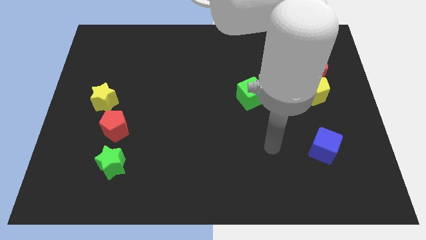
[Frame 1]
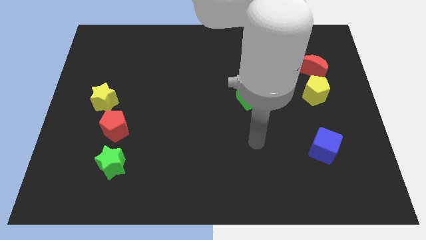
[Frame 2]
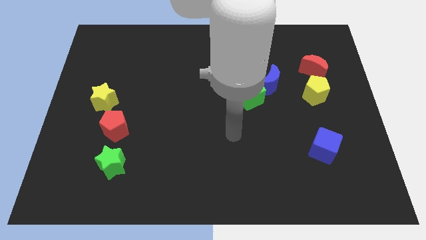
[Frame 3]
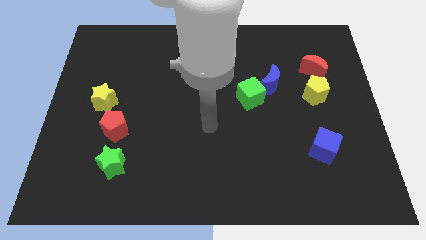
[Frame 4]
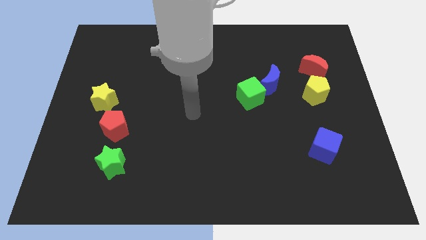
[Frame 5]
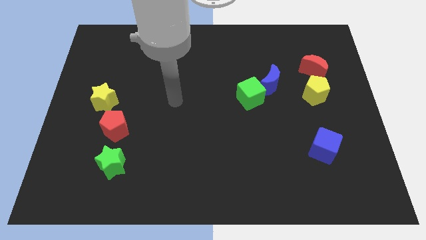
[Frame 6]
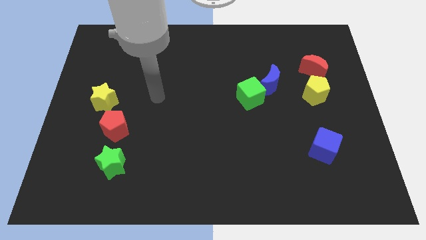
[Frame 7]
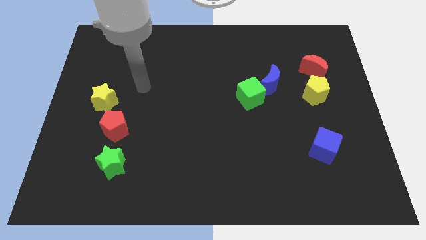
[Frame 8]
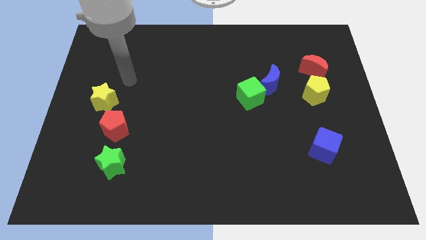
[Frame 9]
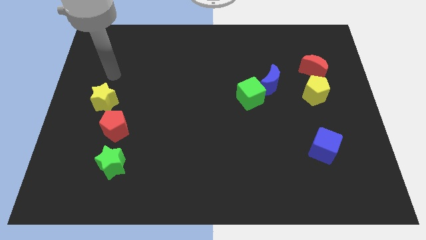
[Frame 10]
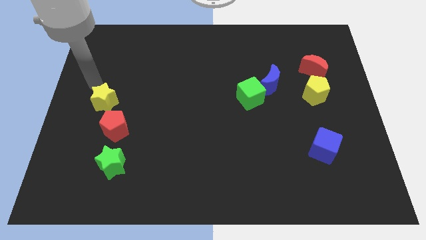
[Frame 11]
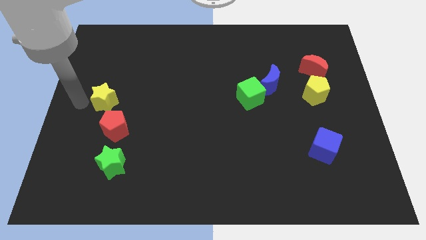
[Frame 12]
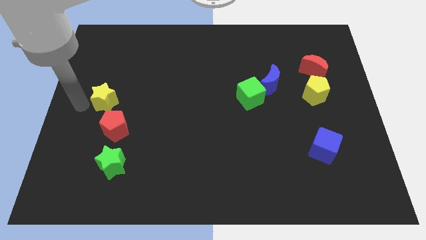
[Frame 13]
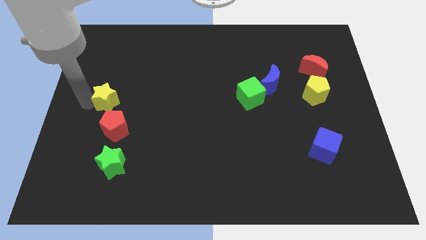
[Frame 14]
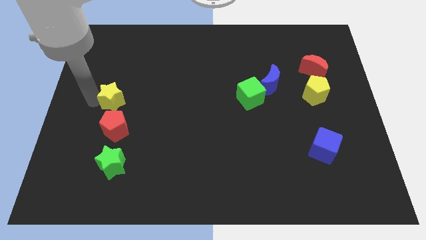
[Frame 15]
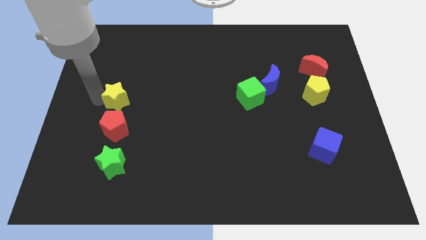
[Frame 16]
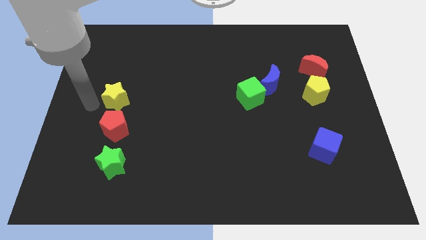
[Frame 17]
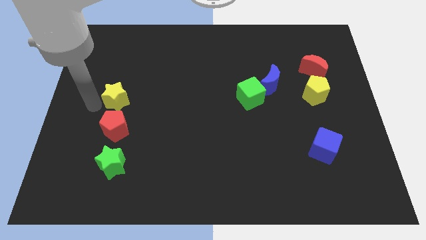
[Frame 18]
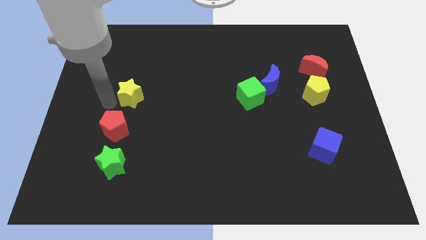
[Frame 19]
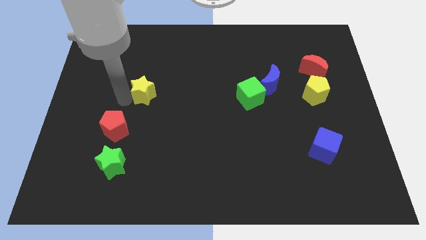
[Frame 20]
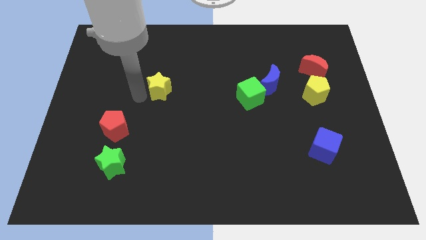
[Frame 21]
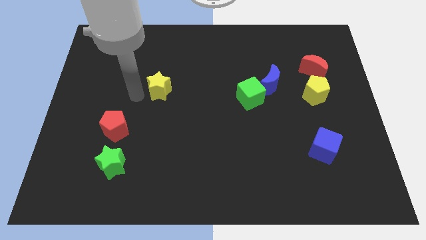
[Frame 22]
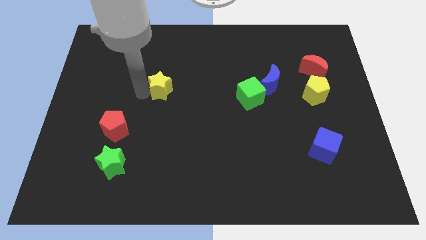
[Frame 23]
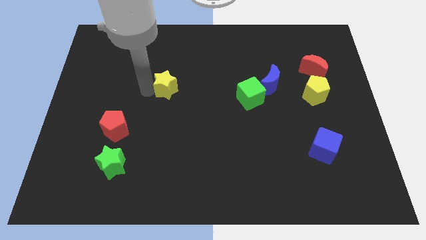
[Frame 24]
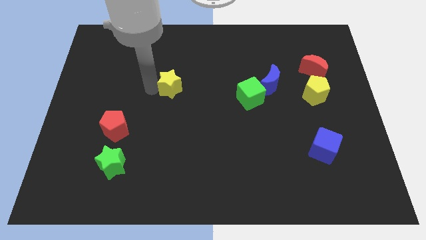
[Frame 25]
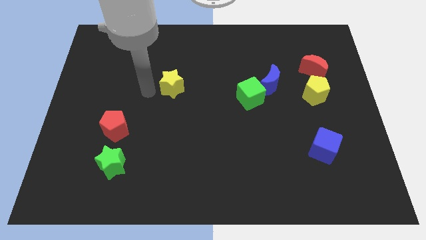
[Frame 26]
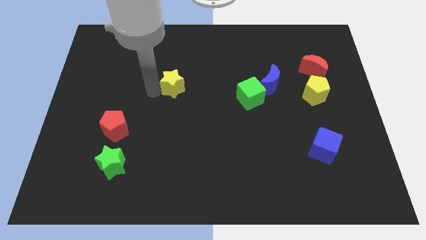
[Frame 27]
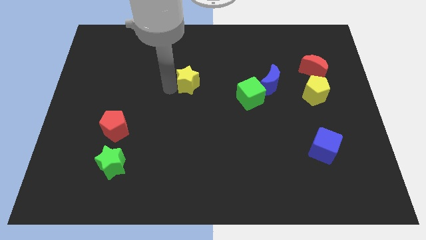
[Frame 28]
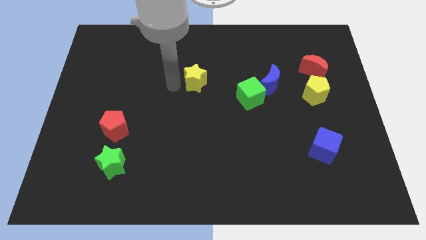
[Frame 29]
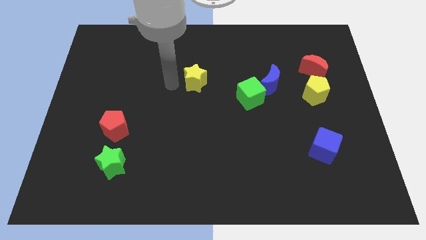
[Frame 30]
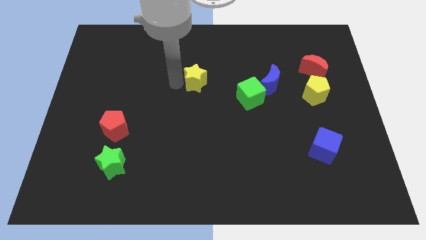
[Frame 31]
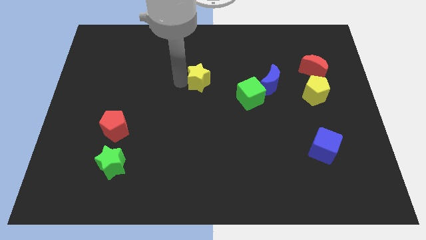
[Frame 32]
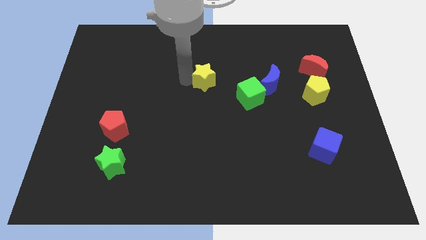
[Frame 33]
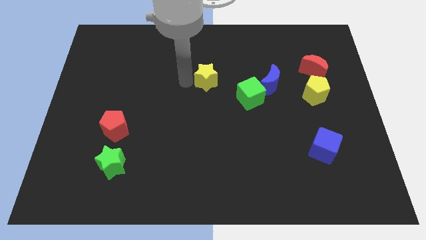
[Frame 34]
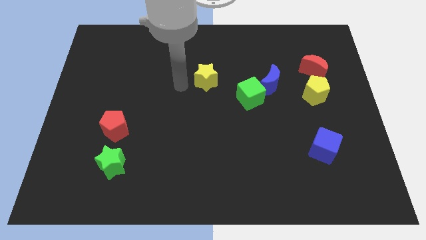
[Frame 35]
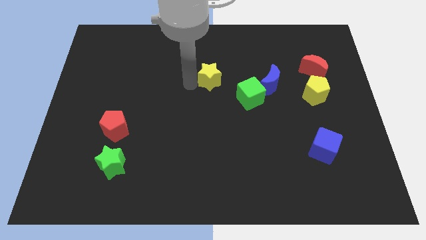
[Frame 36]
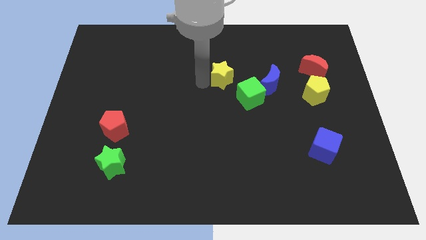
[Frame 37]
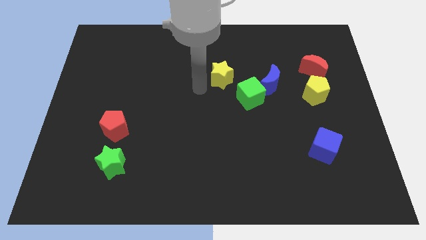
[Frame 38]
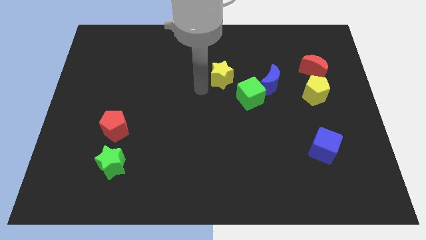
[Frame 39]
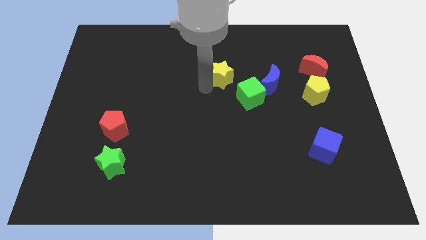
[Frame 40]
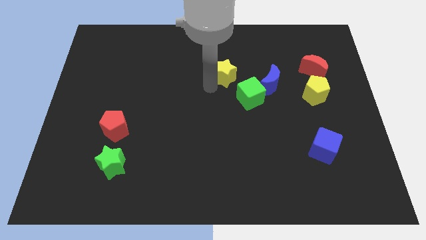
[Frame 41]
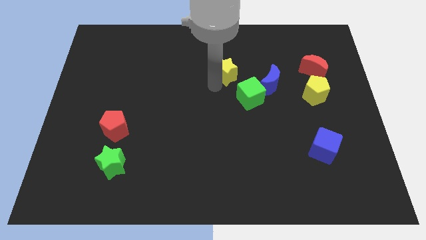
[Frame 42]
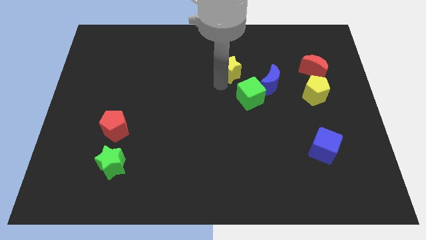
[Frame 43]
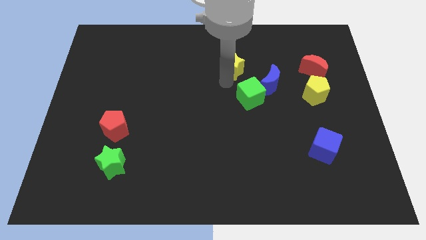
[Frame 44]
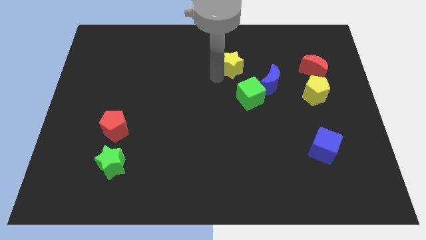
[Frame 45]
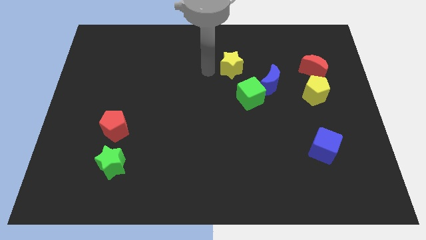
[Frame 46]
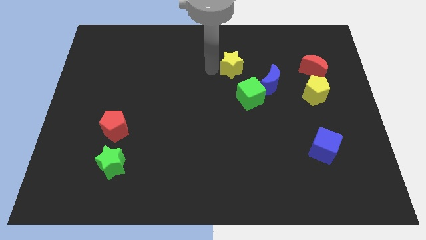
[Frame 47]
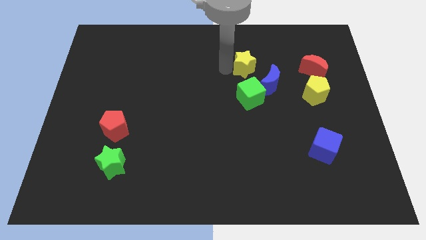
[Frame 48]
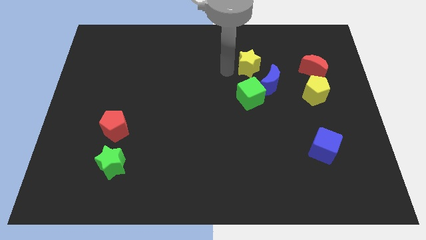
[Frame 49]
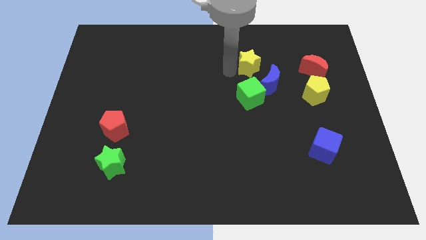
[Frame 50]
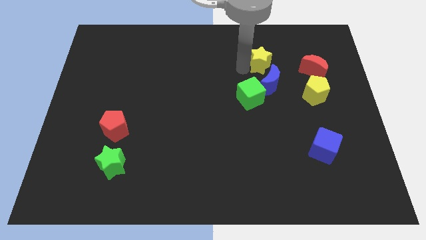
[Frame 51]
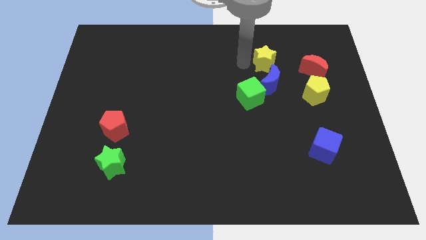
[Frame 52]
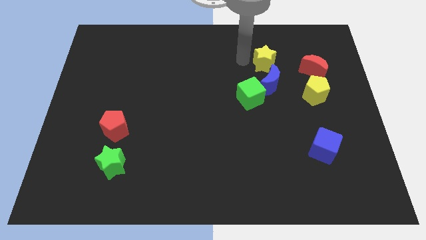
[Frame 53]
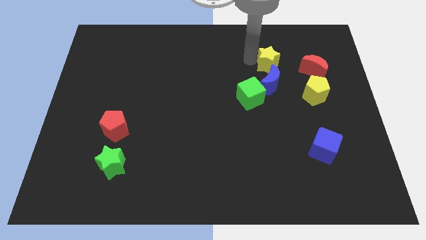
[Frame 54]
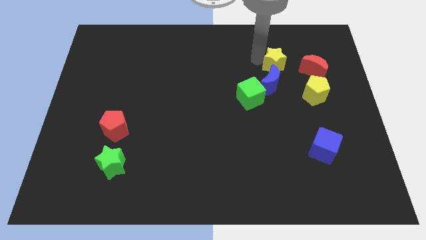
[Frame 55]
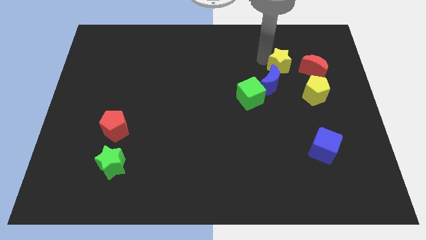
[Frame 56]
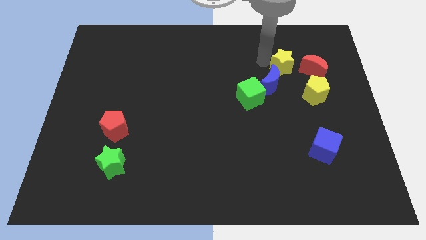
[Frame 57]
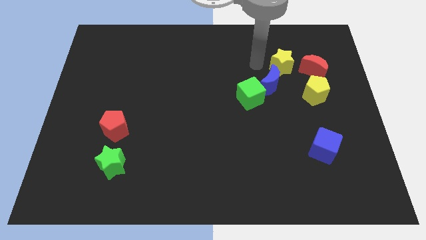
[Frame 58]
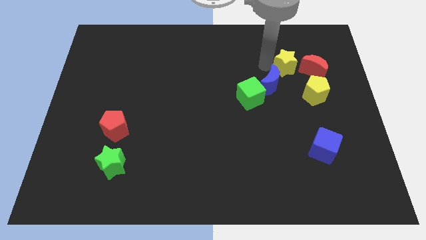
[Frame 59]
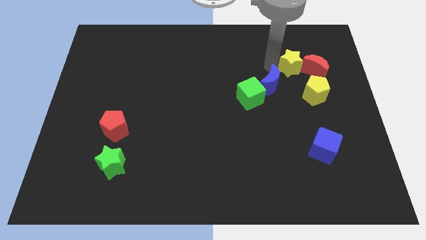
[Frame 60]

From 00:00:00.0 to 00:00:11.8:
move the yellow star next to the red moon

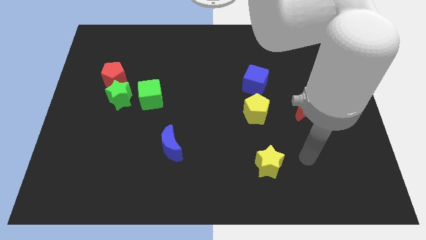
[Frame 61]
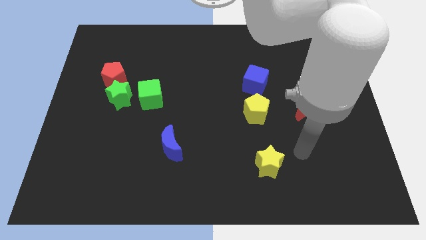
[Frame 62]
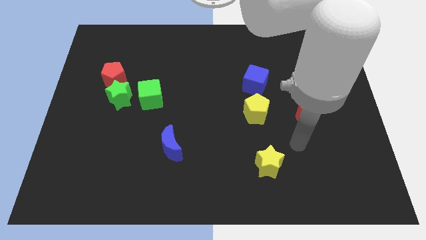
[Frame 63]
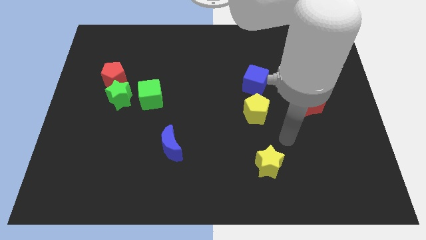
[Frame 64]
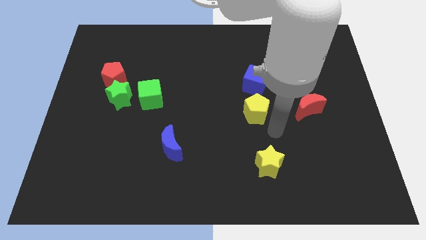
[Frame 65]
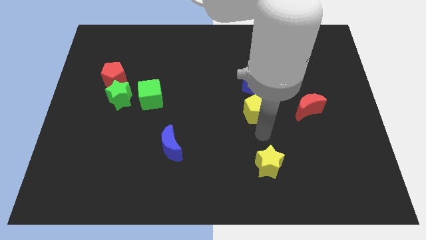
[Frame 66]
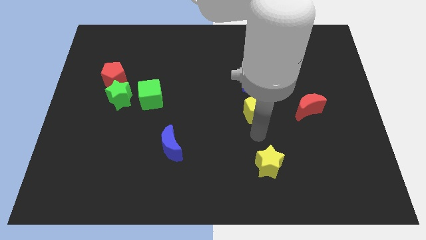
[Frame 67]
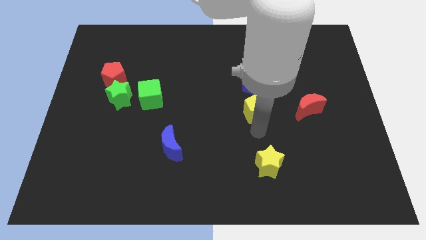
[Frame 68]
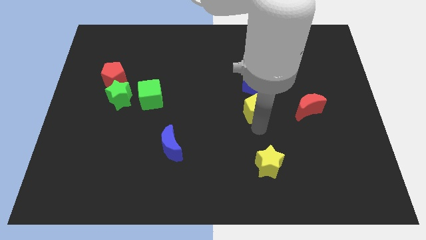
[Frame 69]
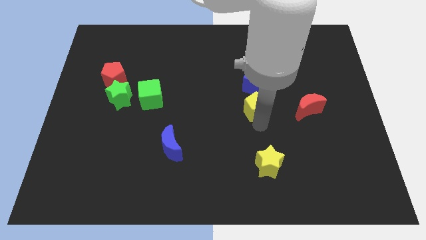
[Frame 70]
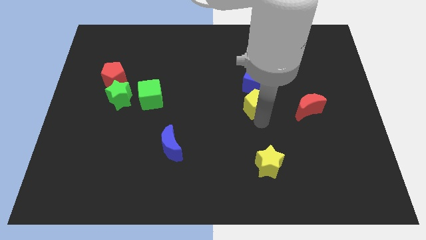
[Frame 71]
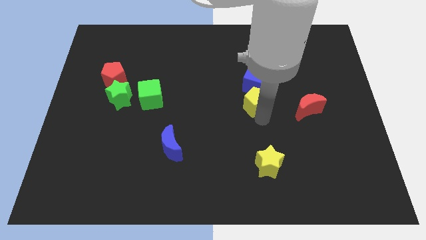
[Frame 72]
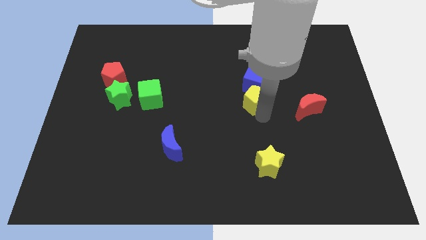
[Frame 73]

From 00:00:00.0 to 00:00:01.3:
push the yellow pentagon close to the blue cube
